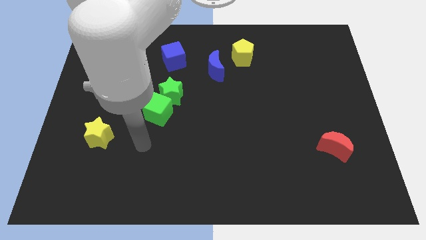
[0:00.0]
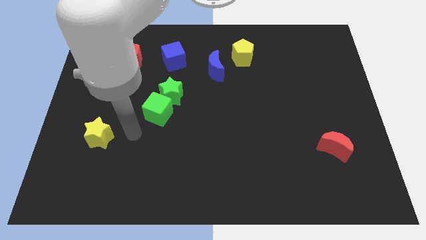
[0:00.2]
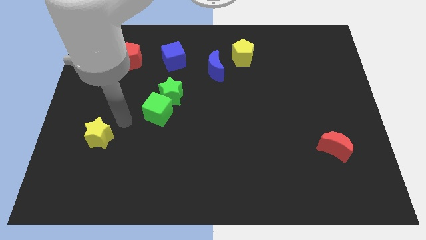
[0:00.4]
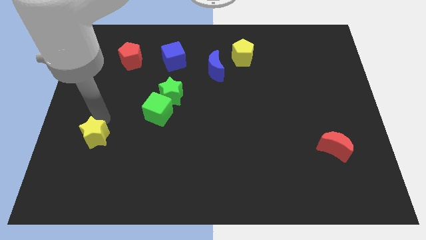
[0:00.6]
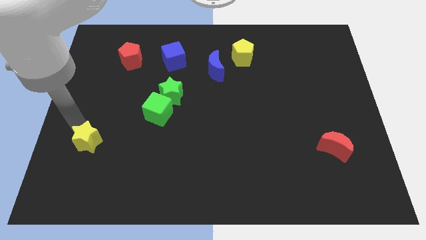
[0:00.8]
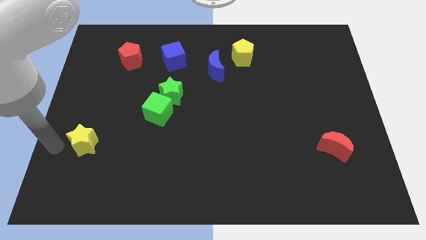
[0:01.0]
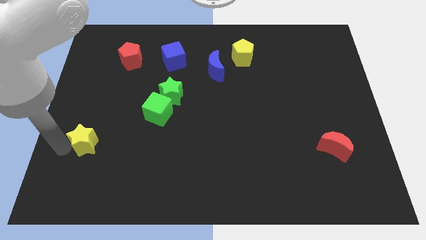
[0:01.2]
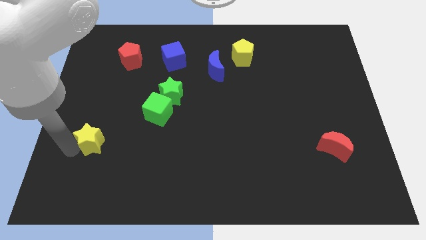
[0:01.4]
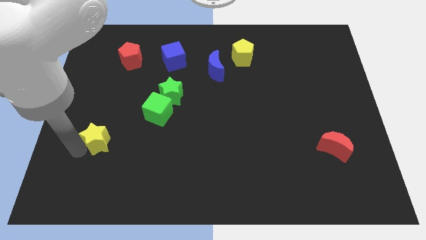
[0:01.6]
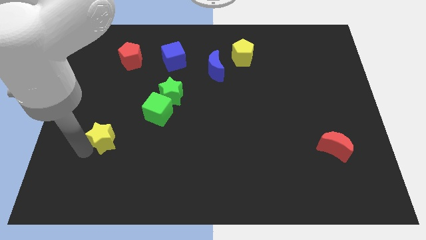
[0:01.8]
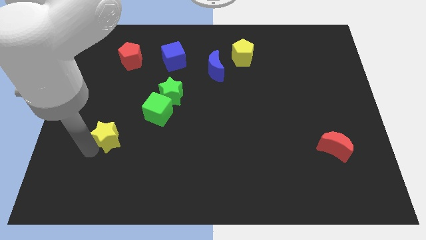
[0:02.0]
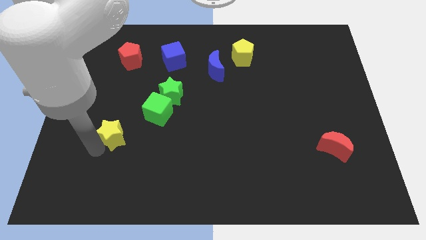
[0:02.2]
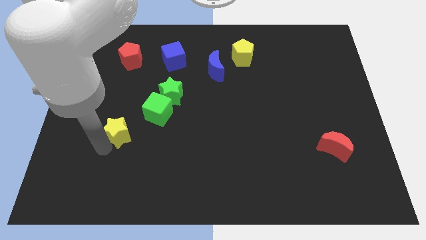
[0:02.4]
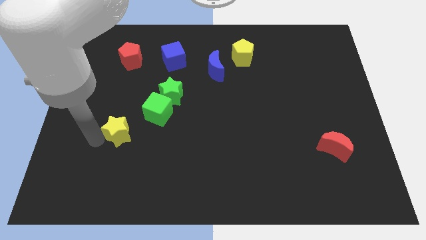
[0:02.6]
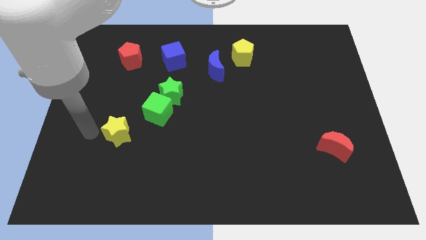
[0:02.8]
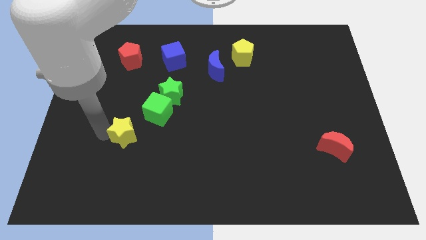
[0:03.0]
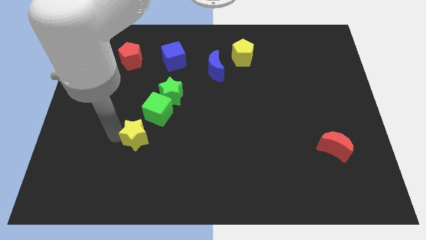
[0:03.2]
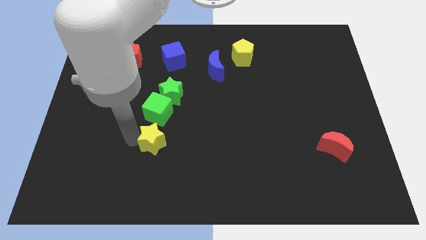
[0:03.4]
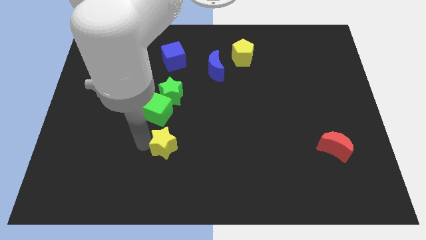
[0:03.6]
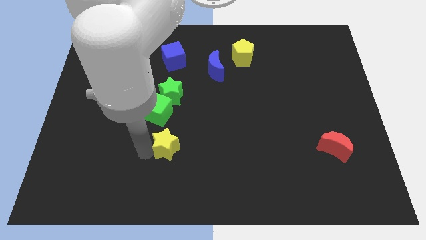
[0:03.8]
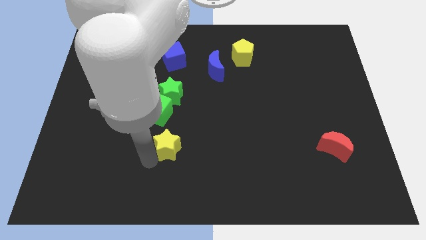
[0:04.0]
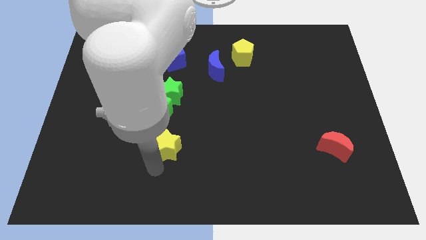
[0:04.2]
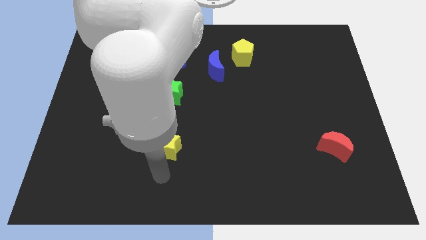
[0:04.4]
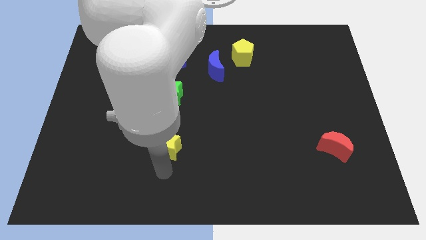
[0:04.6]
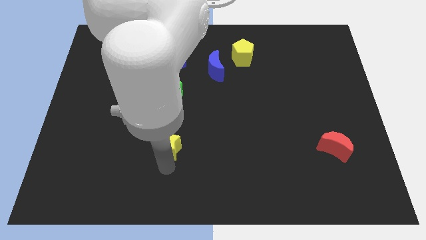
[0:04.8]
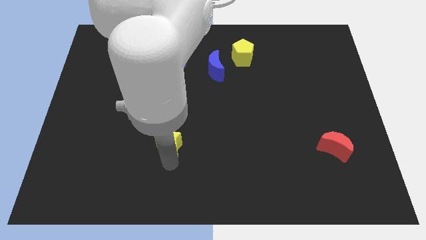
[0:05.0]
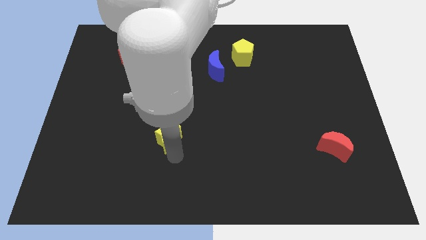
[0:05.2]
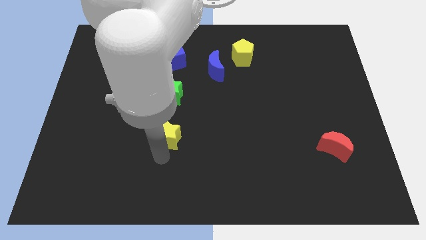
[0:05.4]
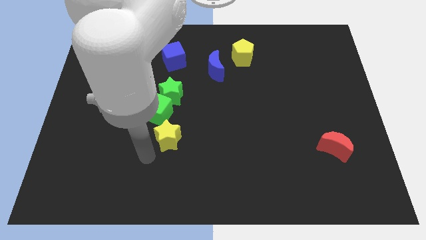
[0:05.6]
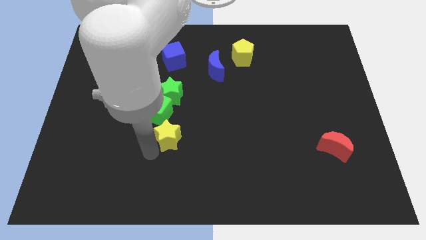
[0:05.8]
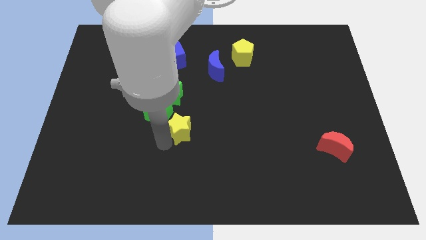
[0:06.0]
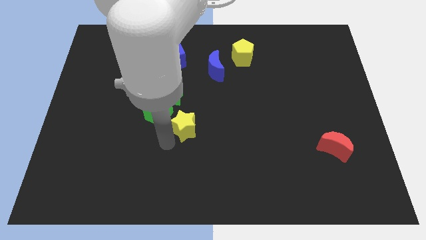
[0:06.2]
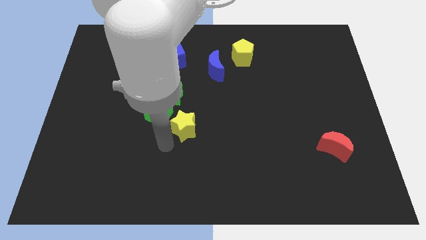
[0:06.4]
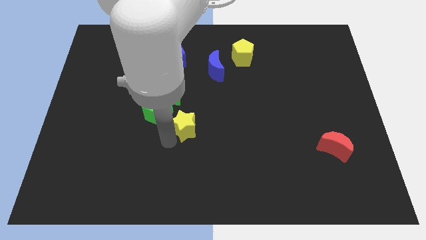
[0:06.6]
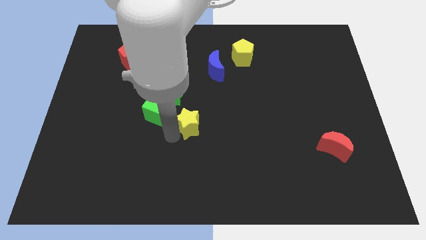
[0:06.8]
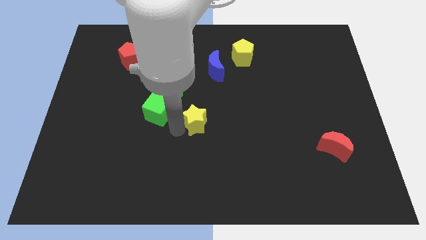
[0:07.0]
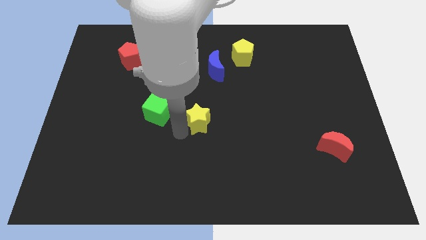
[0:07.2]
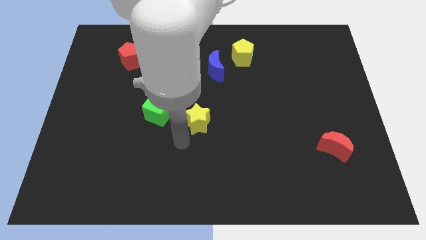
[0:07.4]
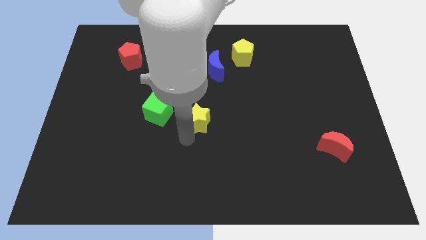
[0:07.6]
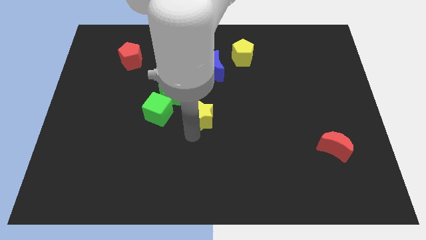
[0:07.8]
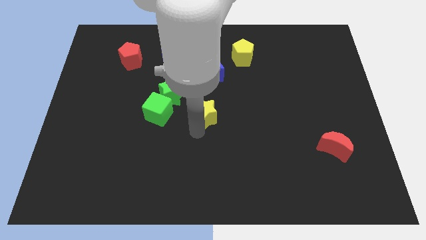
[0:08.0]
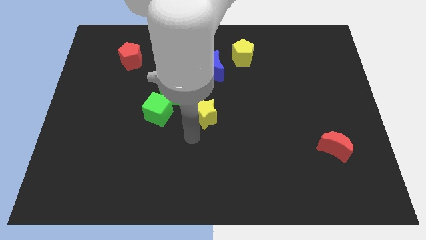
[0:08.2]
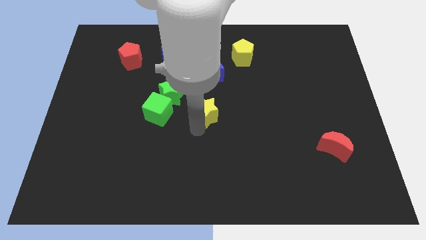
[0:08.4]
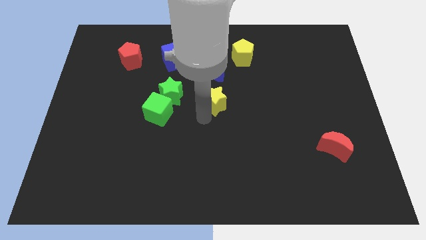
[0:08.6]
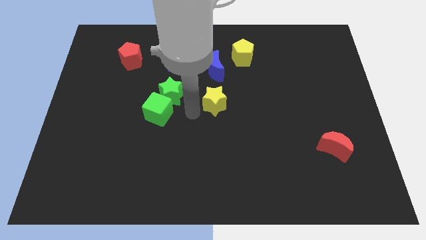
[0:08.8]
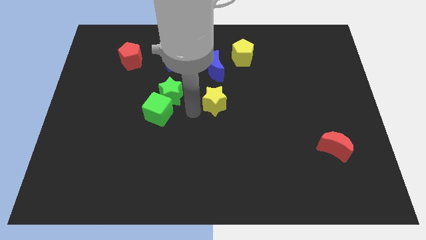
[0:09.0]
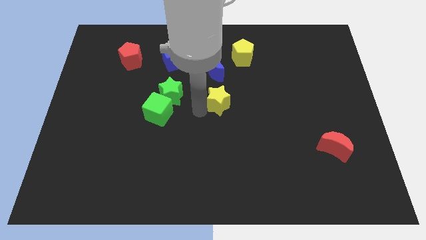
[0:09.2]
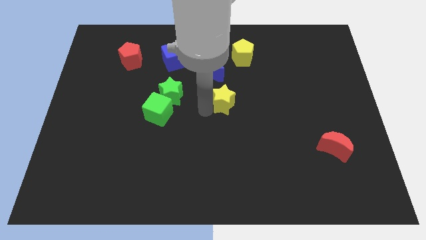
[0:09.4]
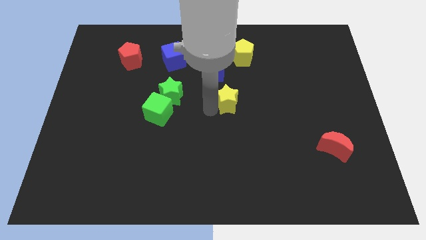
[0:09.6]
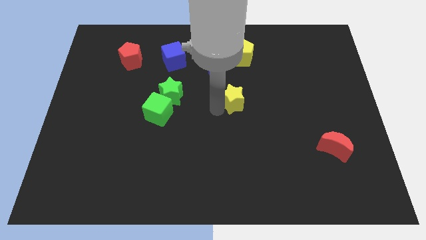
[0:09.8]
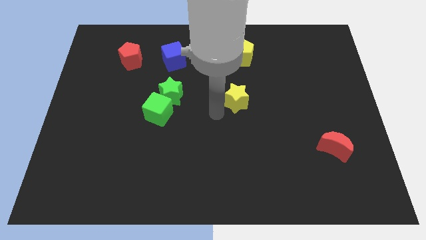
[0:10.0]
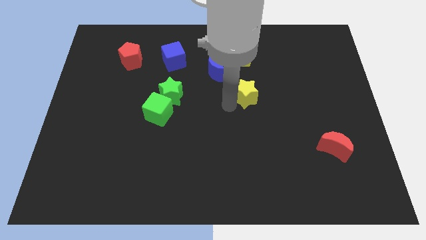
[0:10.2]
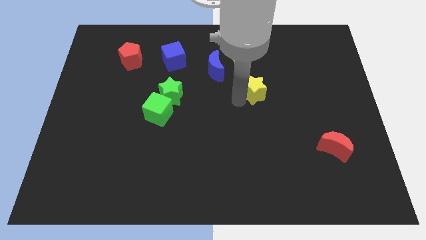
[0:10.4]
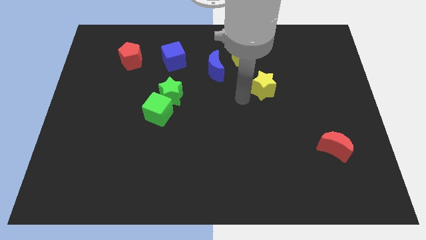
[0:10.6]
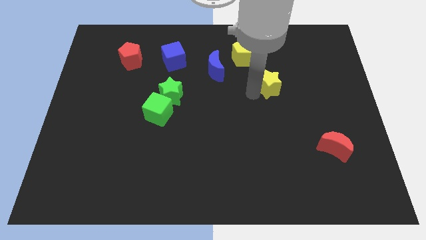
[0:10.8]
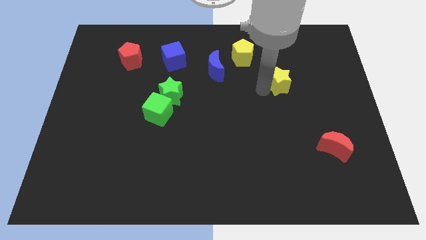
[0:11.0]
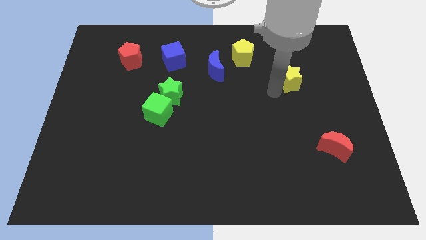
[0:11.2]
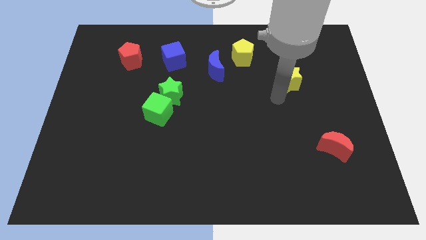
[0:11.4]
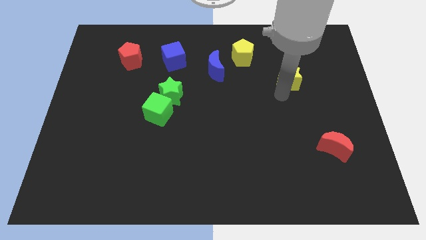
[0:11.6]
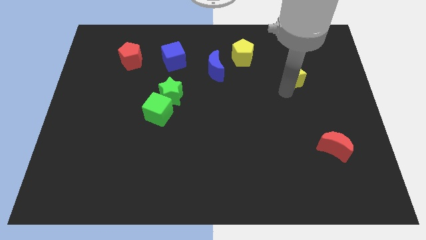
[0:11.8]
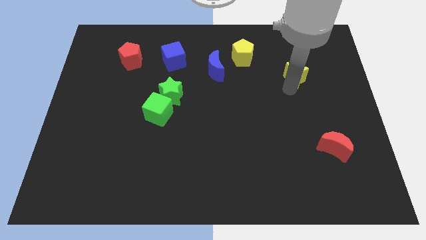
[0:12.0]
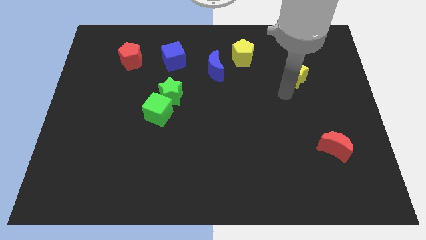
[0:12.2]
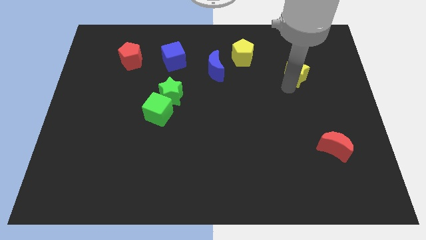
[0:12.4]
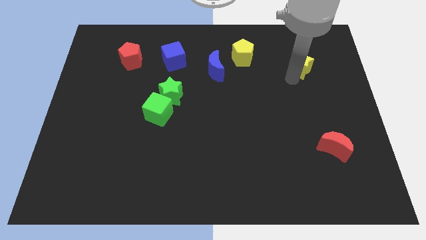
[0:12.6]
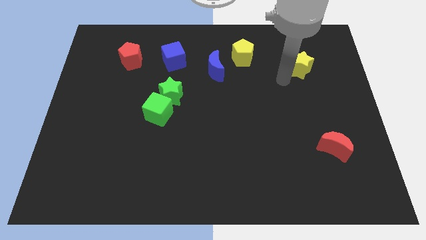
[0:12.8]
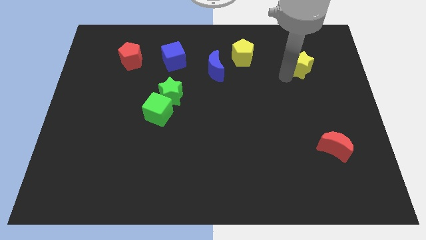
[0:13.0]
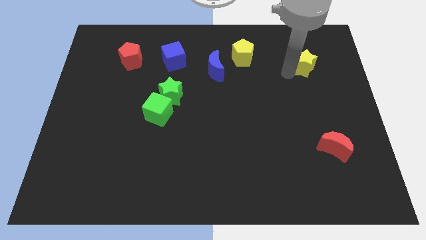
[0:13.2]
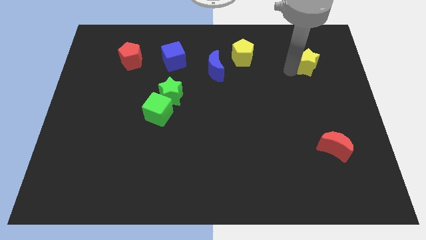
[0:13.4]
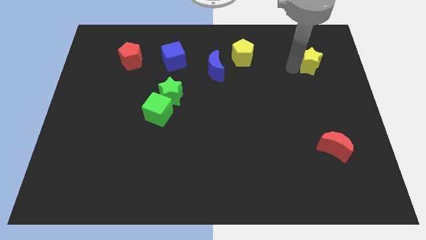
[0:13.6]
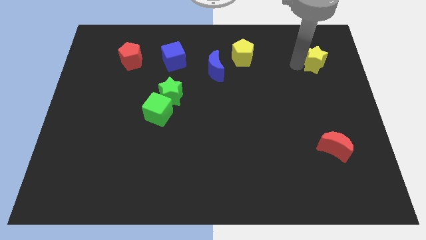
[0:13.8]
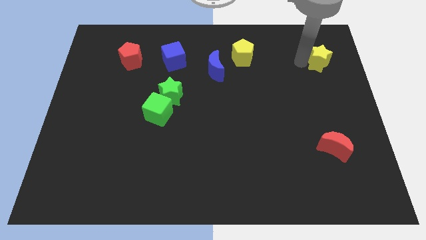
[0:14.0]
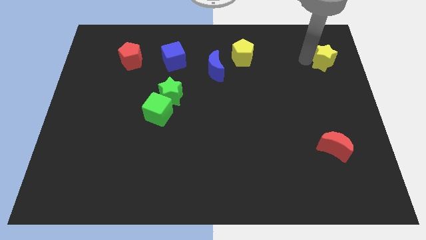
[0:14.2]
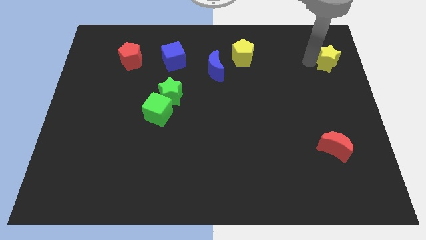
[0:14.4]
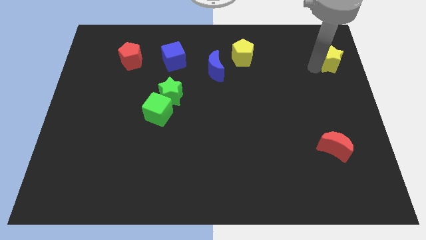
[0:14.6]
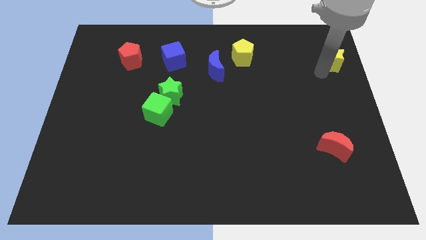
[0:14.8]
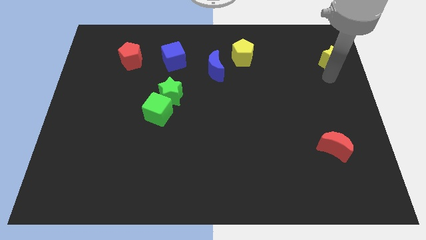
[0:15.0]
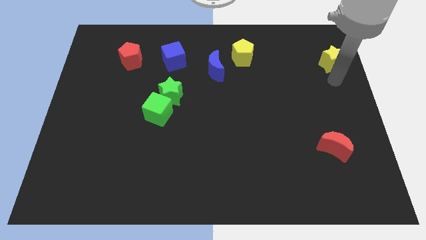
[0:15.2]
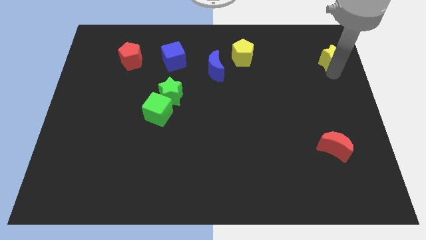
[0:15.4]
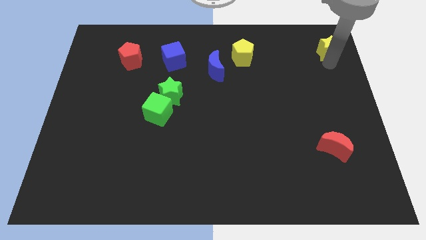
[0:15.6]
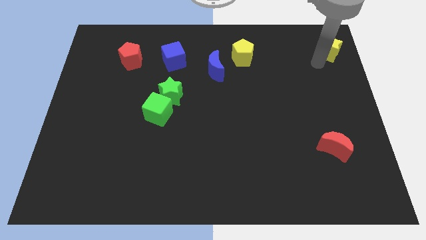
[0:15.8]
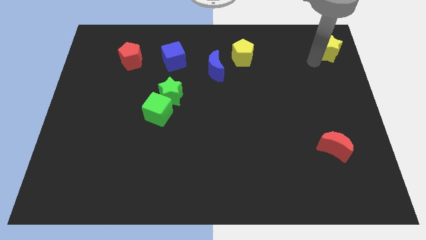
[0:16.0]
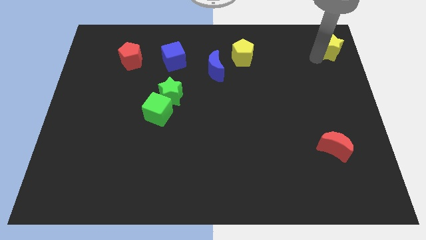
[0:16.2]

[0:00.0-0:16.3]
slide the yellow star to the top right corner
